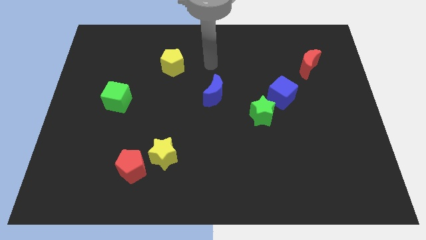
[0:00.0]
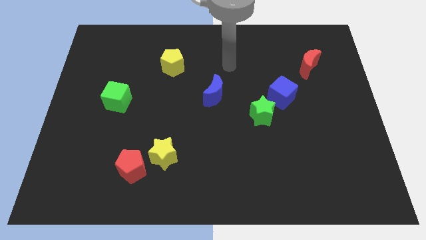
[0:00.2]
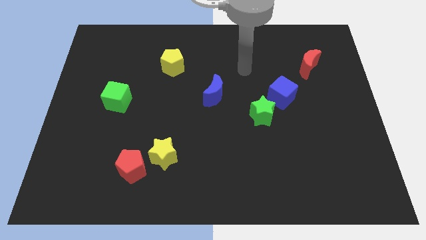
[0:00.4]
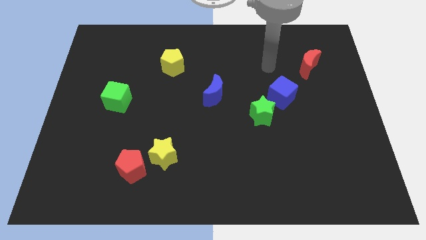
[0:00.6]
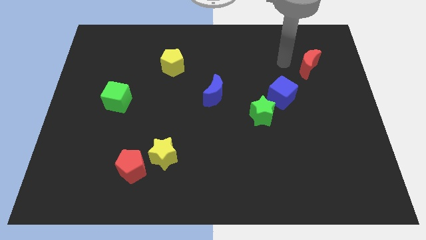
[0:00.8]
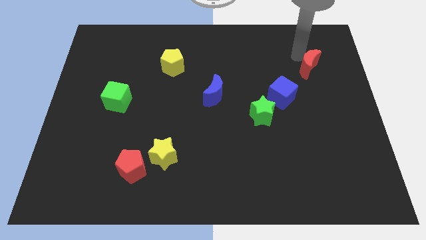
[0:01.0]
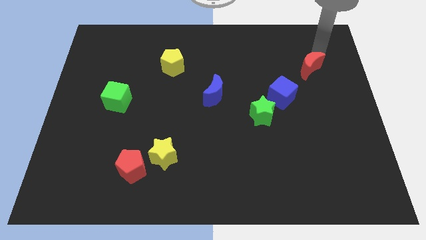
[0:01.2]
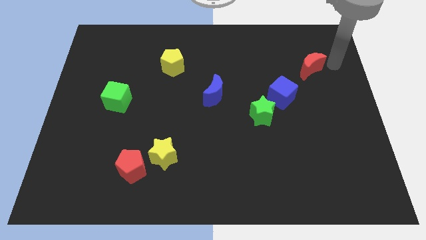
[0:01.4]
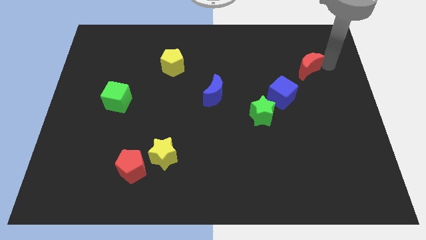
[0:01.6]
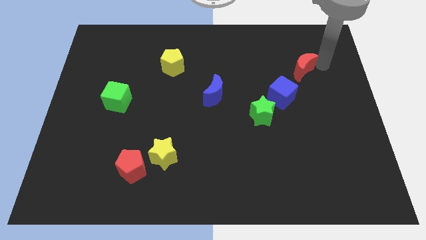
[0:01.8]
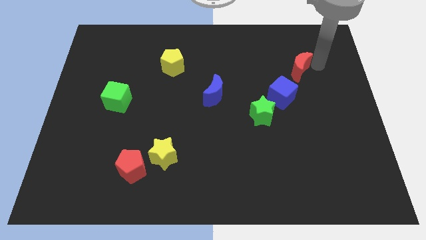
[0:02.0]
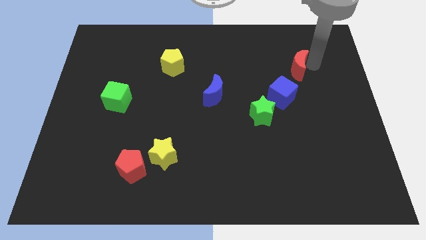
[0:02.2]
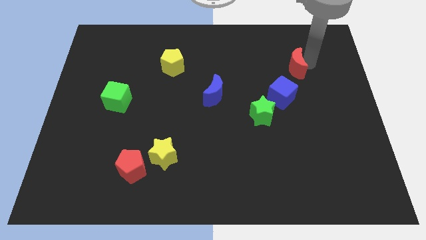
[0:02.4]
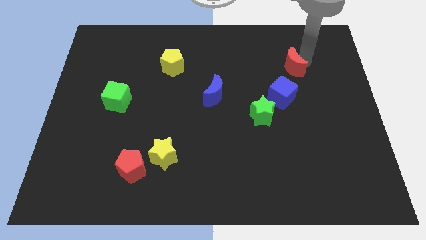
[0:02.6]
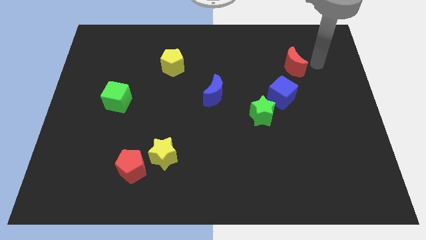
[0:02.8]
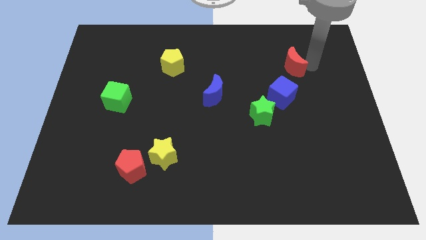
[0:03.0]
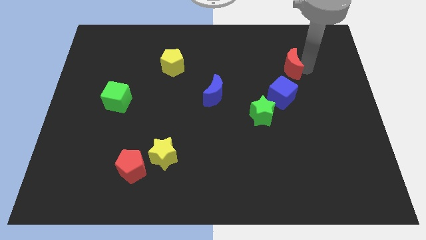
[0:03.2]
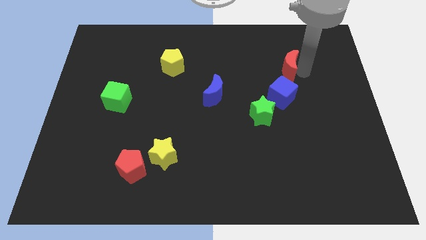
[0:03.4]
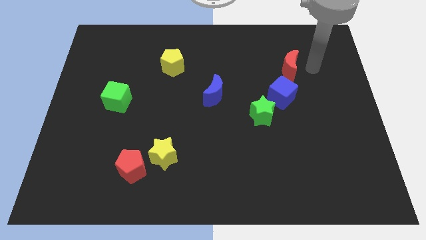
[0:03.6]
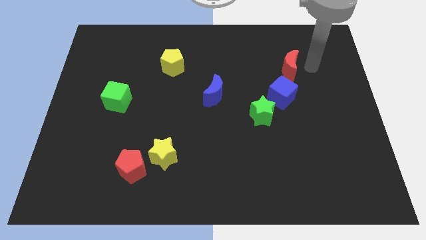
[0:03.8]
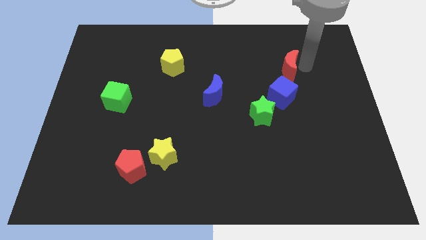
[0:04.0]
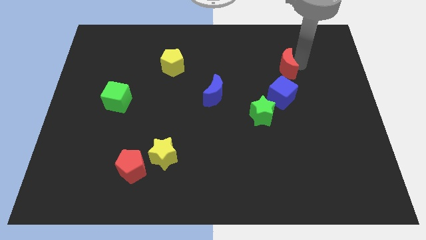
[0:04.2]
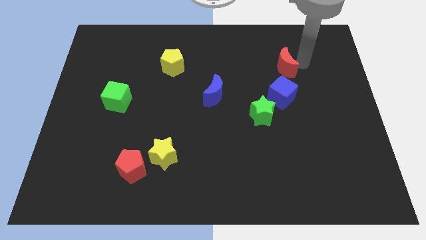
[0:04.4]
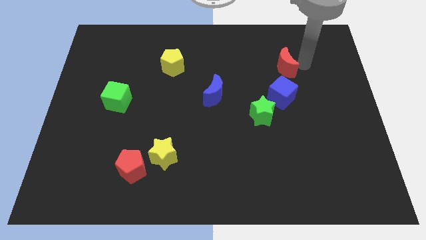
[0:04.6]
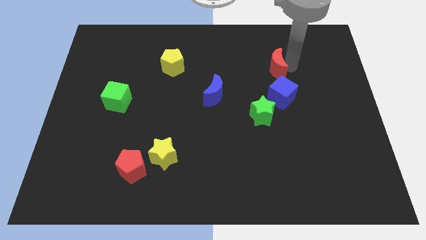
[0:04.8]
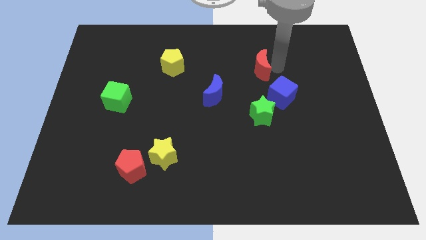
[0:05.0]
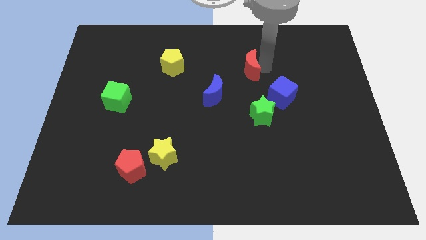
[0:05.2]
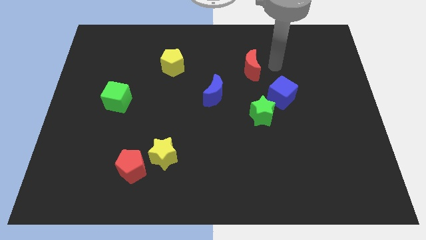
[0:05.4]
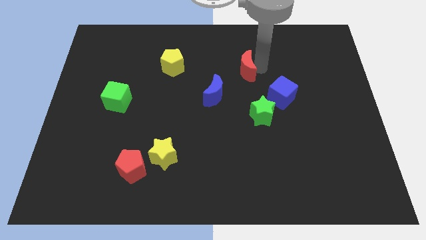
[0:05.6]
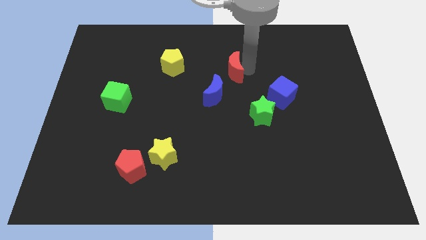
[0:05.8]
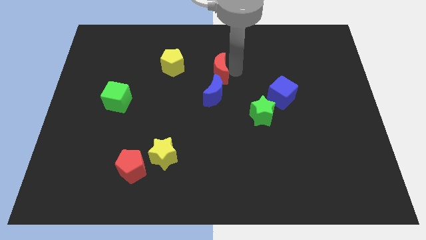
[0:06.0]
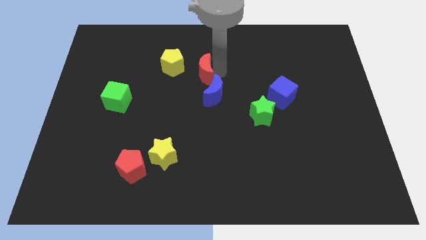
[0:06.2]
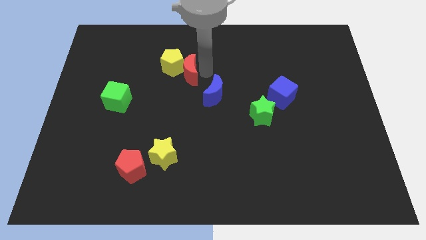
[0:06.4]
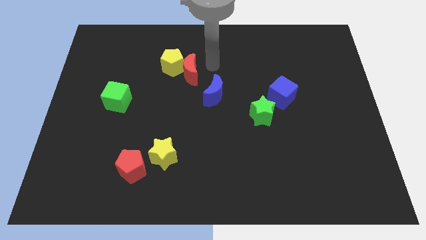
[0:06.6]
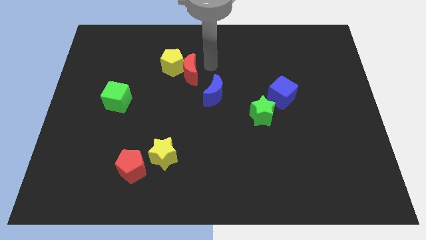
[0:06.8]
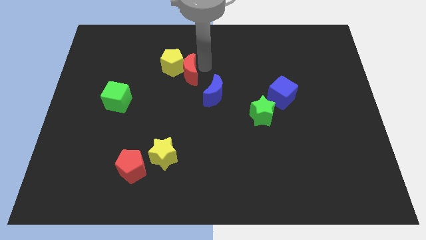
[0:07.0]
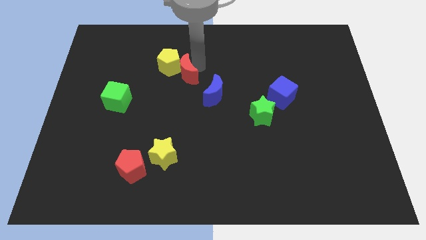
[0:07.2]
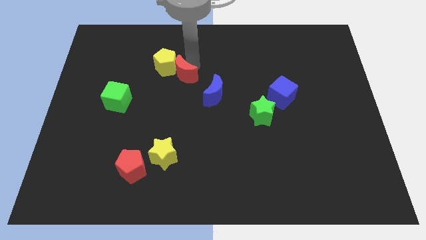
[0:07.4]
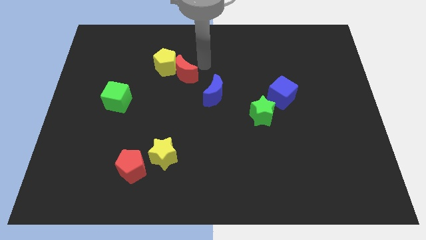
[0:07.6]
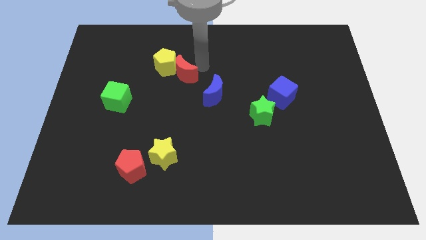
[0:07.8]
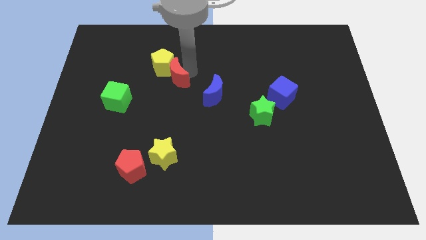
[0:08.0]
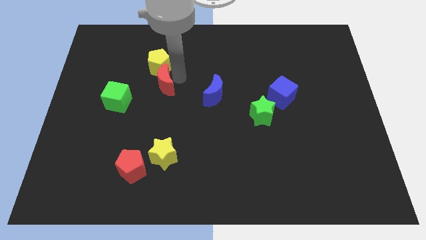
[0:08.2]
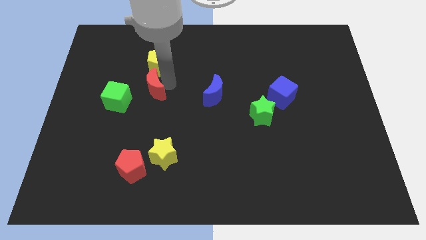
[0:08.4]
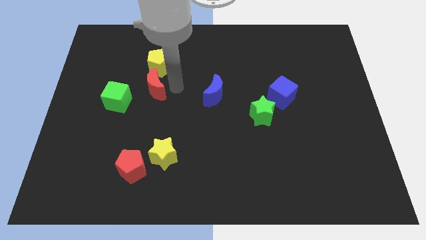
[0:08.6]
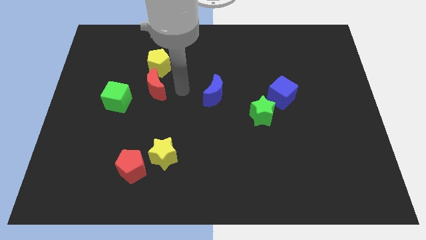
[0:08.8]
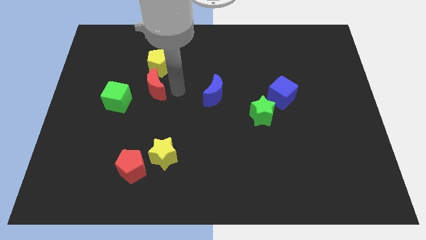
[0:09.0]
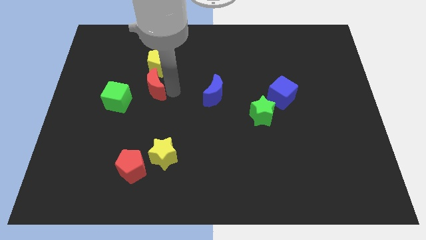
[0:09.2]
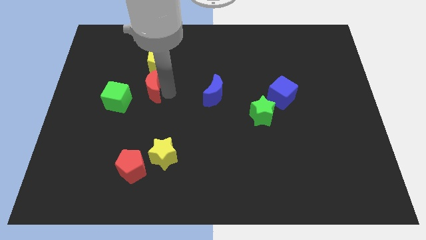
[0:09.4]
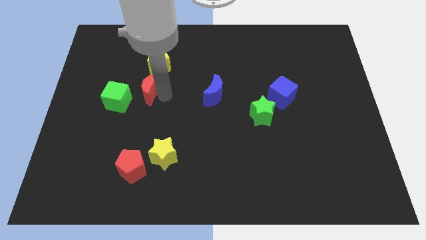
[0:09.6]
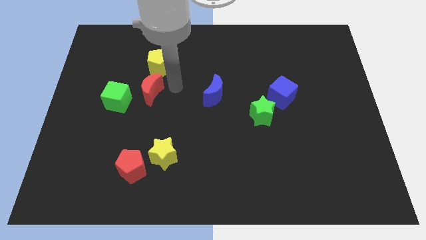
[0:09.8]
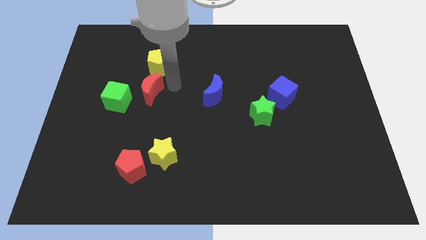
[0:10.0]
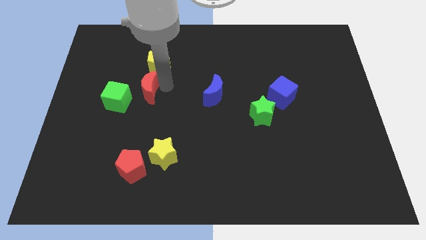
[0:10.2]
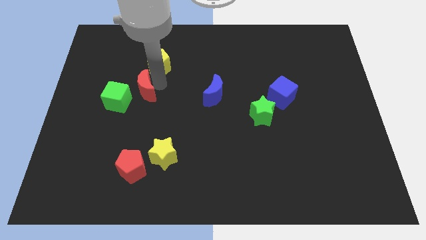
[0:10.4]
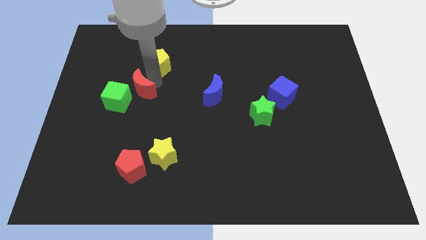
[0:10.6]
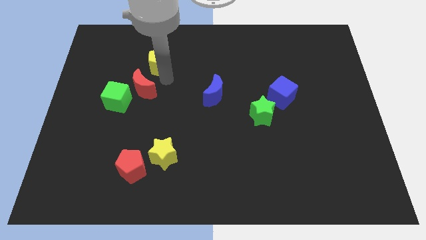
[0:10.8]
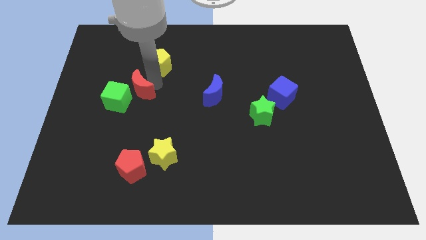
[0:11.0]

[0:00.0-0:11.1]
slide the red moon next to the green cube

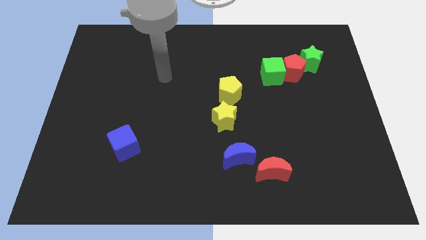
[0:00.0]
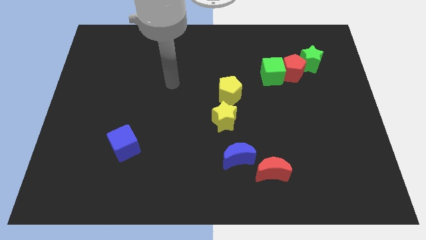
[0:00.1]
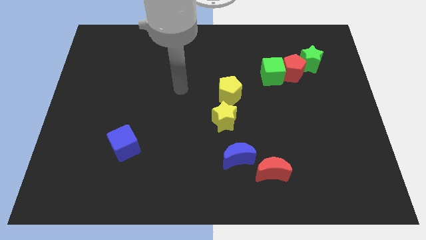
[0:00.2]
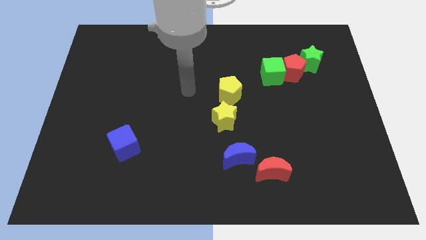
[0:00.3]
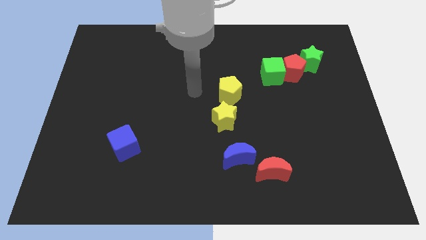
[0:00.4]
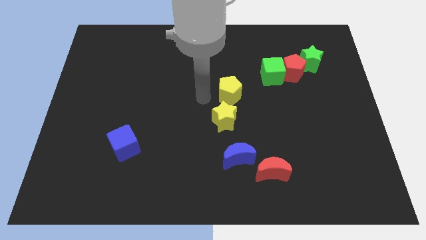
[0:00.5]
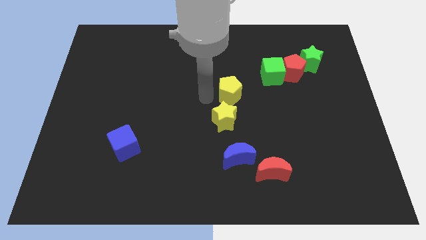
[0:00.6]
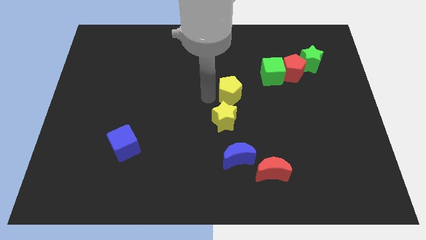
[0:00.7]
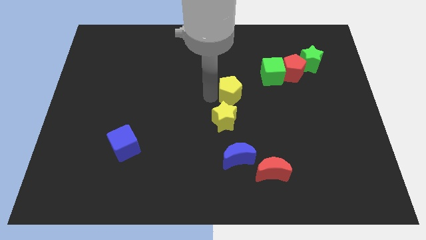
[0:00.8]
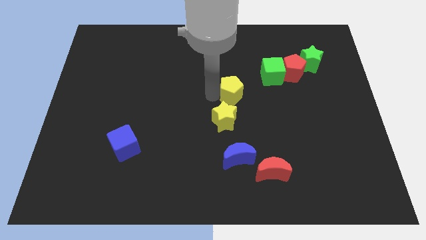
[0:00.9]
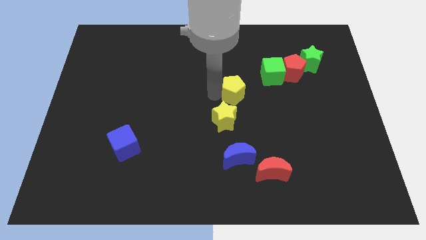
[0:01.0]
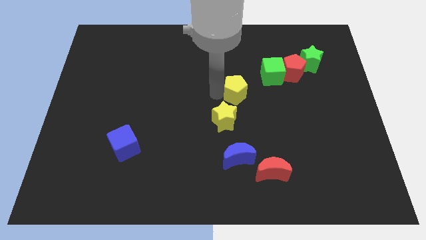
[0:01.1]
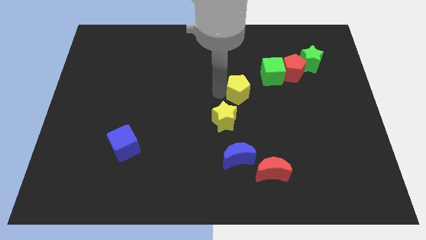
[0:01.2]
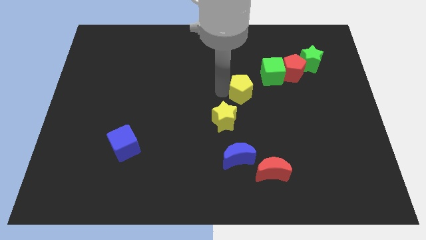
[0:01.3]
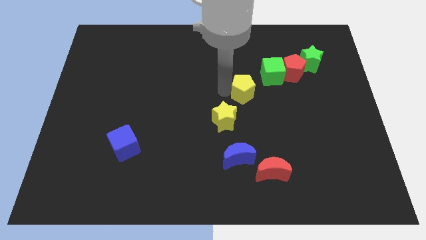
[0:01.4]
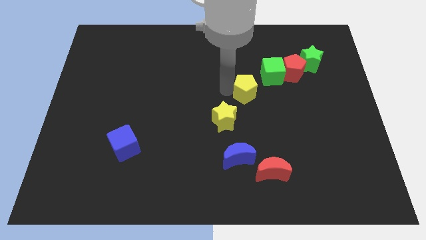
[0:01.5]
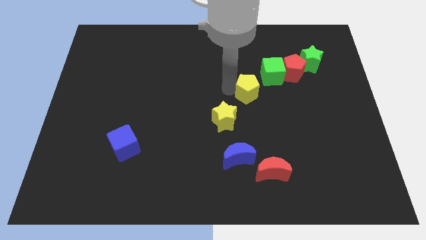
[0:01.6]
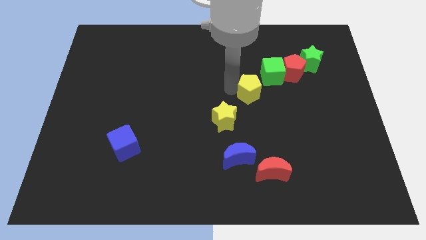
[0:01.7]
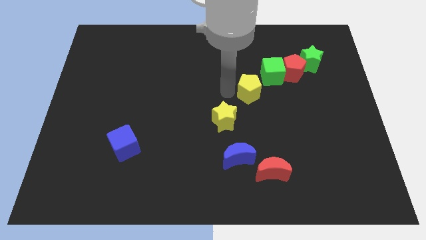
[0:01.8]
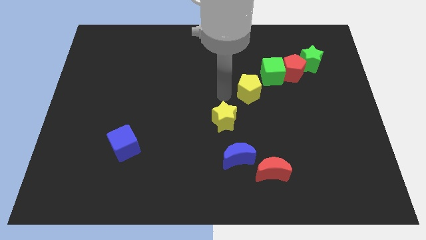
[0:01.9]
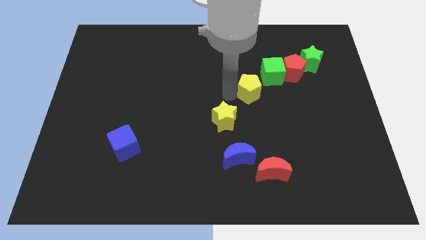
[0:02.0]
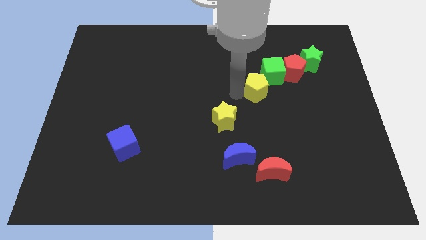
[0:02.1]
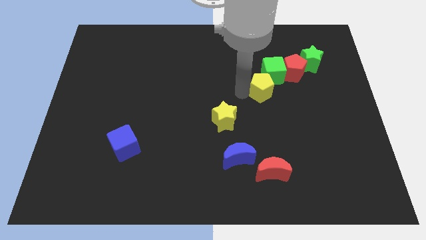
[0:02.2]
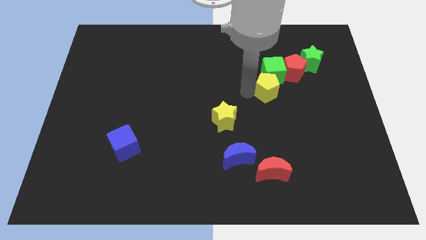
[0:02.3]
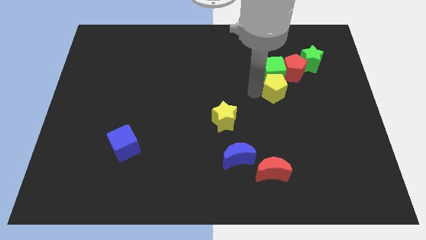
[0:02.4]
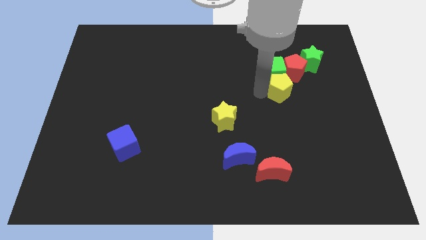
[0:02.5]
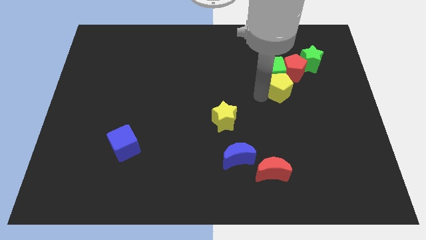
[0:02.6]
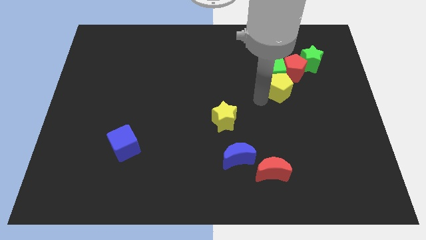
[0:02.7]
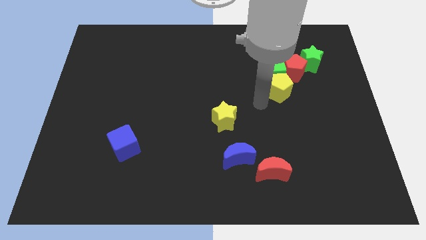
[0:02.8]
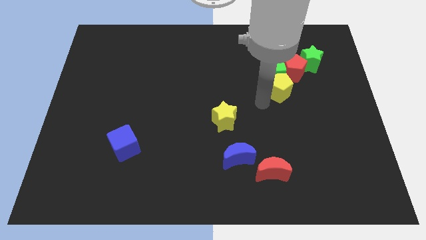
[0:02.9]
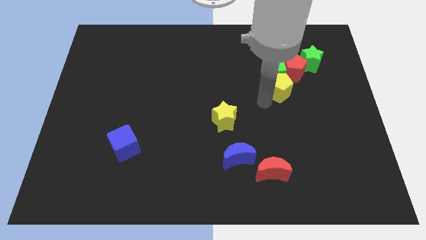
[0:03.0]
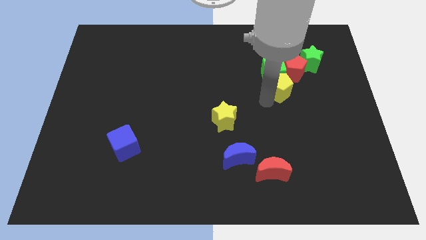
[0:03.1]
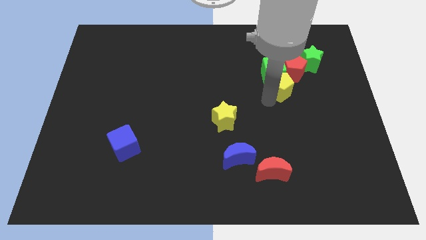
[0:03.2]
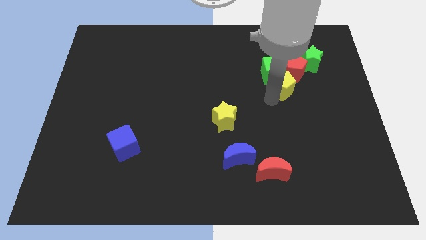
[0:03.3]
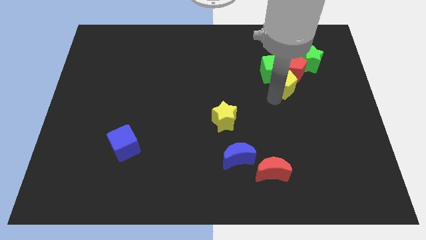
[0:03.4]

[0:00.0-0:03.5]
push the yellow pentagon towards the red pentagon
